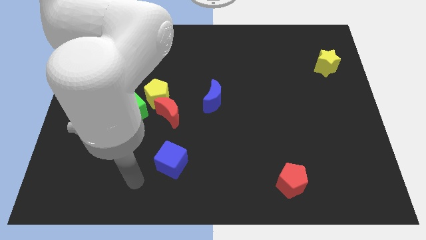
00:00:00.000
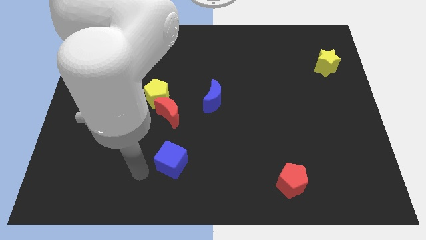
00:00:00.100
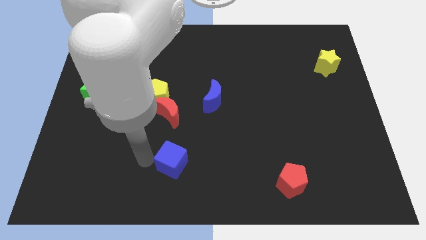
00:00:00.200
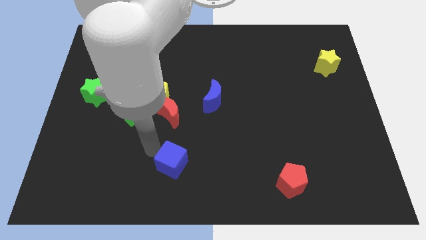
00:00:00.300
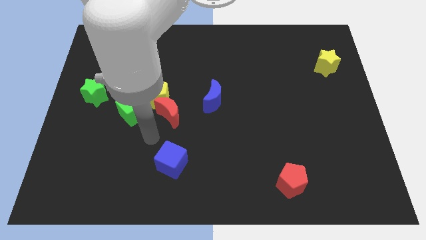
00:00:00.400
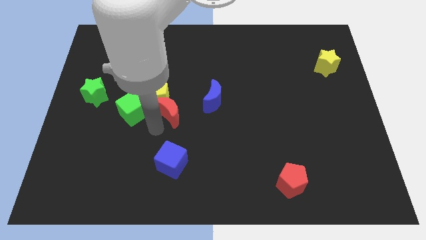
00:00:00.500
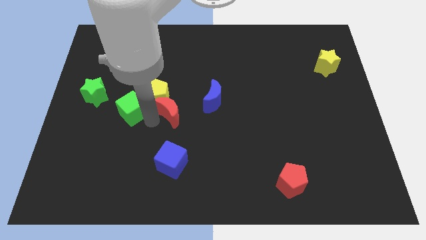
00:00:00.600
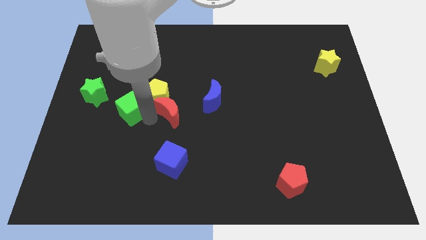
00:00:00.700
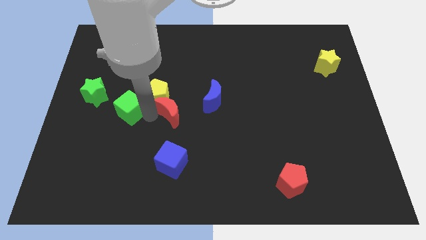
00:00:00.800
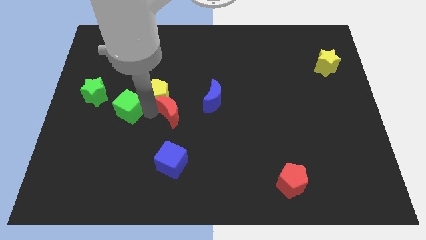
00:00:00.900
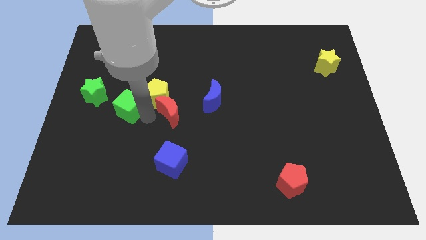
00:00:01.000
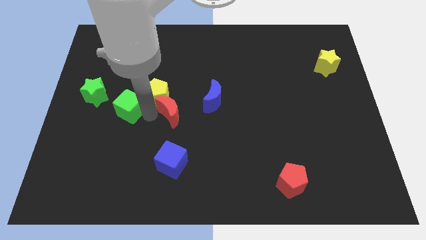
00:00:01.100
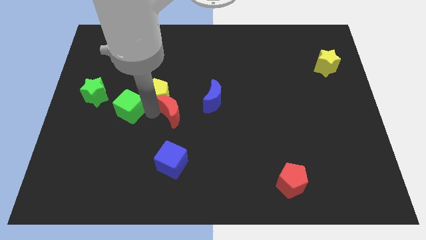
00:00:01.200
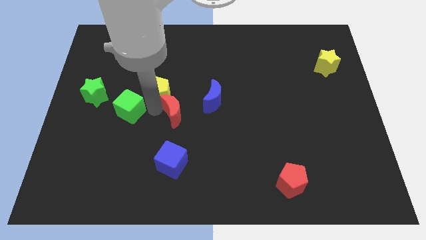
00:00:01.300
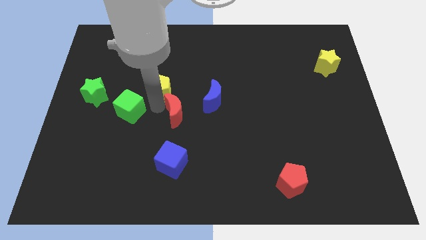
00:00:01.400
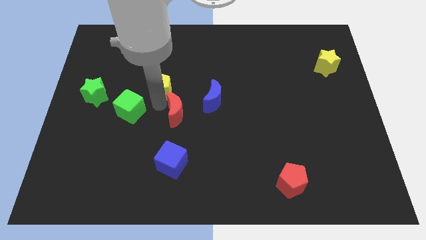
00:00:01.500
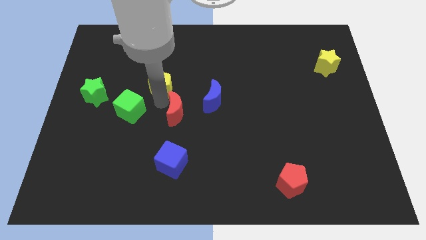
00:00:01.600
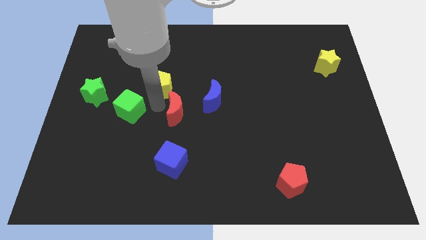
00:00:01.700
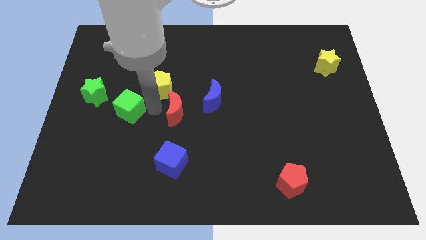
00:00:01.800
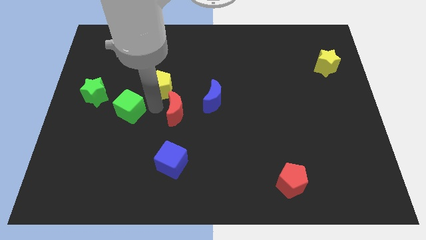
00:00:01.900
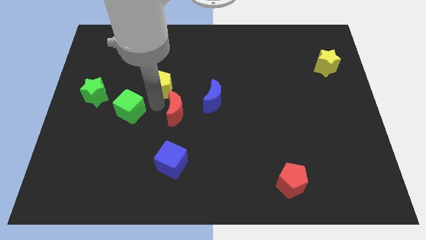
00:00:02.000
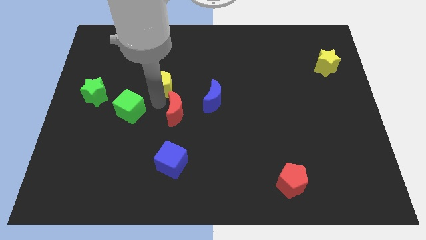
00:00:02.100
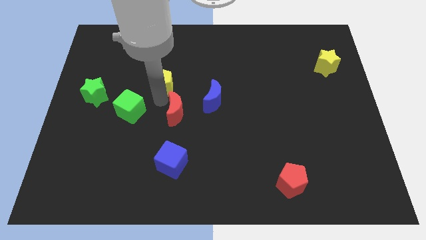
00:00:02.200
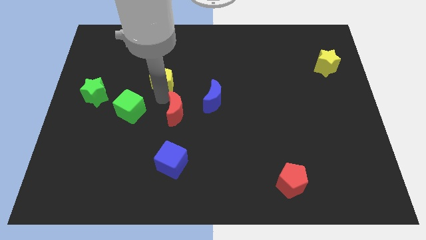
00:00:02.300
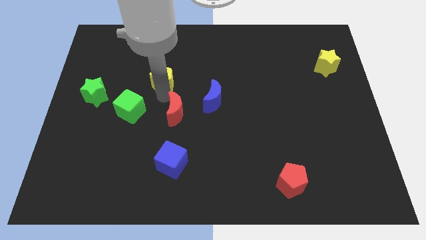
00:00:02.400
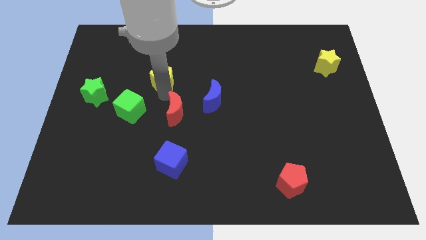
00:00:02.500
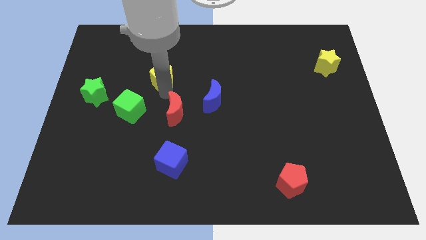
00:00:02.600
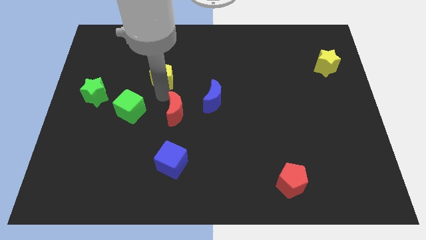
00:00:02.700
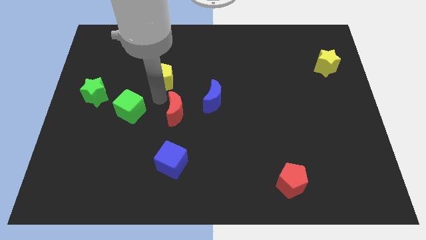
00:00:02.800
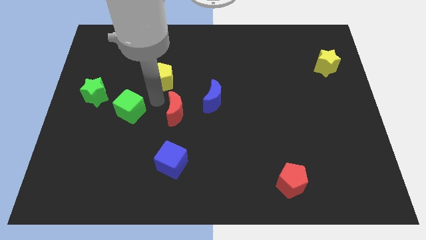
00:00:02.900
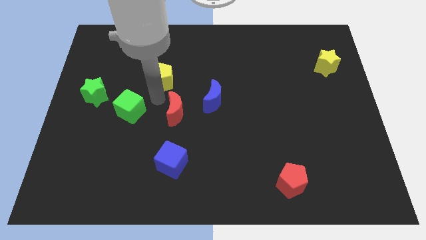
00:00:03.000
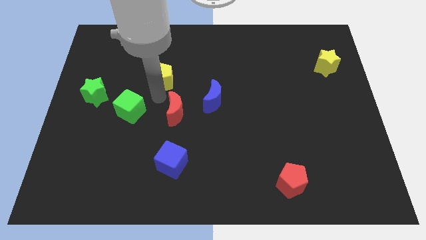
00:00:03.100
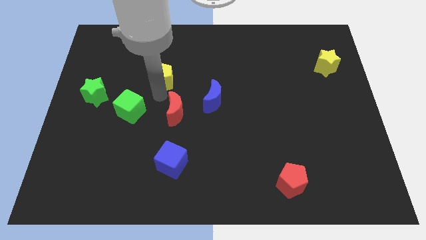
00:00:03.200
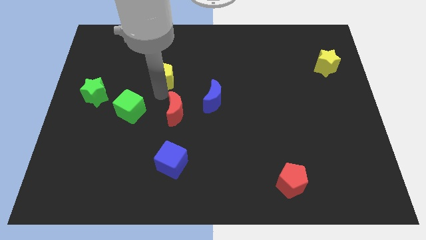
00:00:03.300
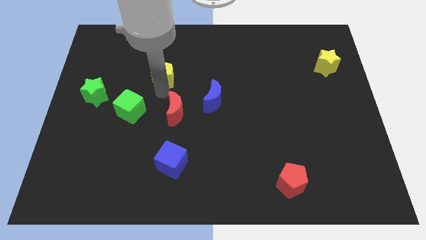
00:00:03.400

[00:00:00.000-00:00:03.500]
pull the yellow pentagon apart from the red moon and green cube

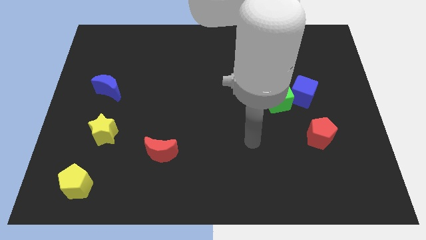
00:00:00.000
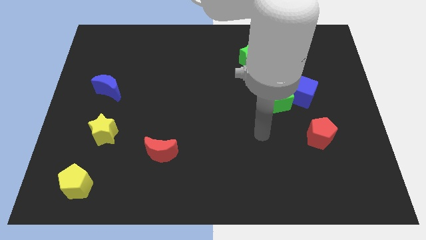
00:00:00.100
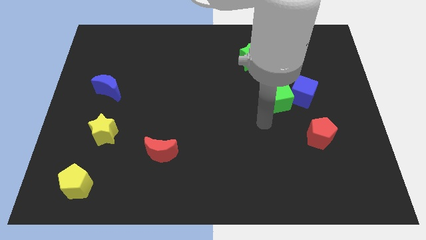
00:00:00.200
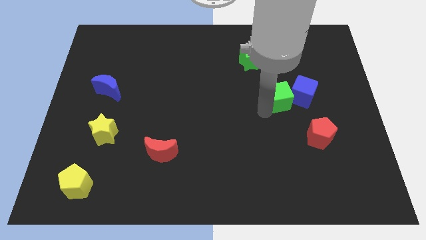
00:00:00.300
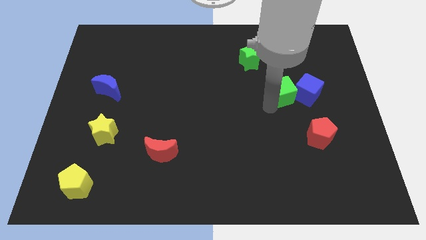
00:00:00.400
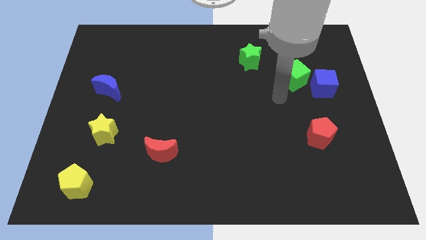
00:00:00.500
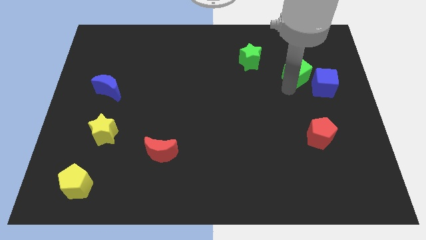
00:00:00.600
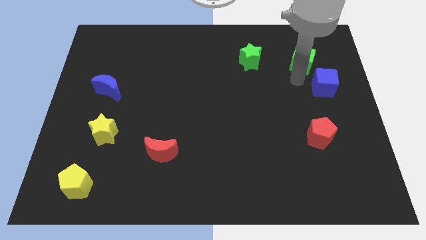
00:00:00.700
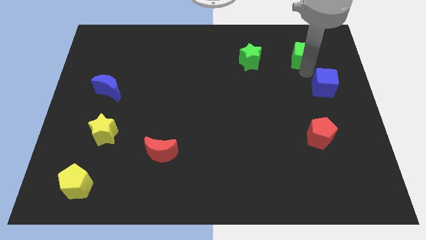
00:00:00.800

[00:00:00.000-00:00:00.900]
separate the blue cube from the green cube

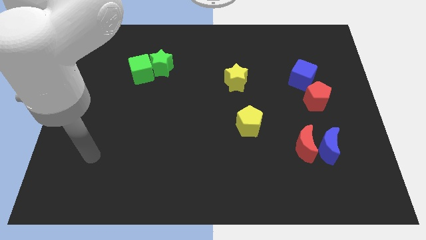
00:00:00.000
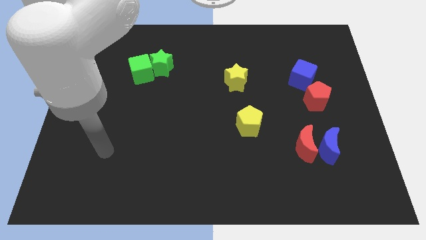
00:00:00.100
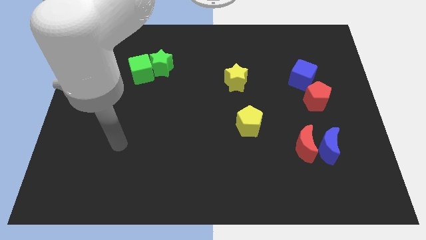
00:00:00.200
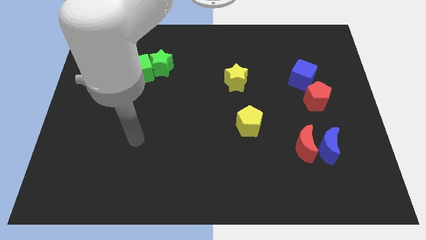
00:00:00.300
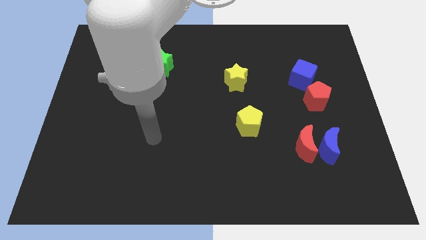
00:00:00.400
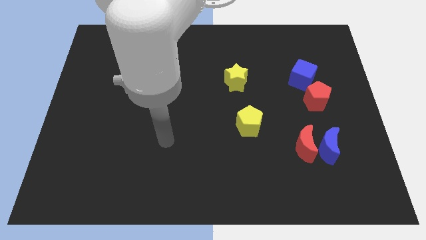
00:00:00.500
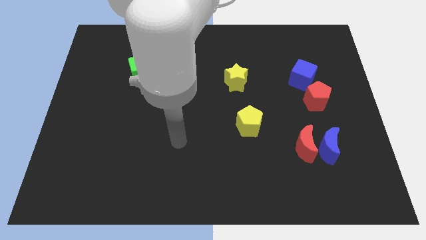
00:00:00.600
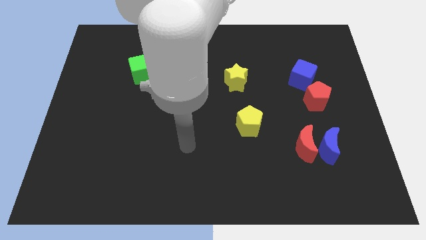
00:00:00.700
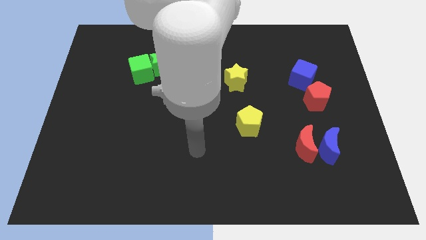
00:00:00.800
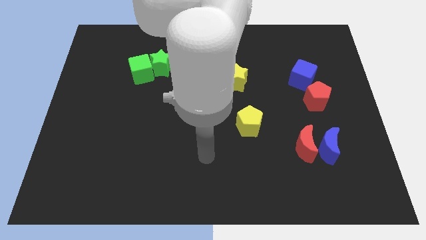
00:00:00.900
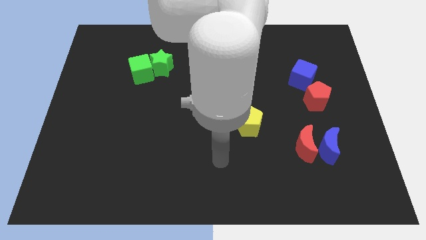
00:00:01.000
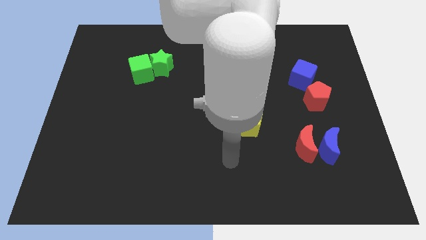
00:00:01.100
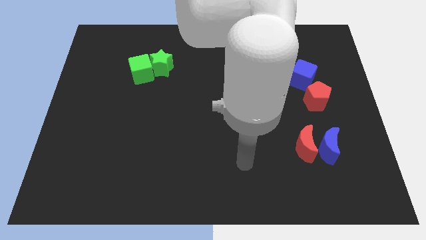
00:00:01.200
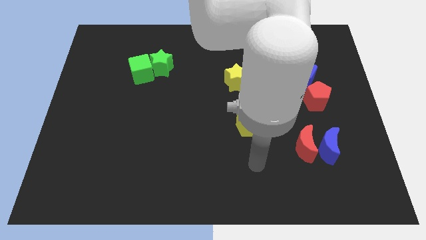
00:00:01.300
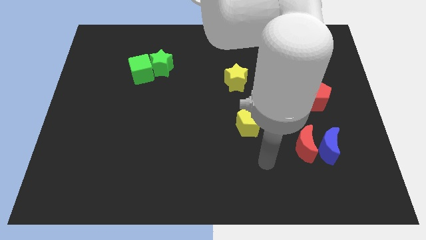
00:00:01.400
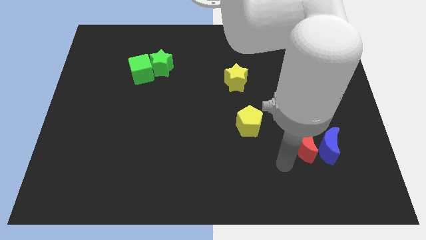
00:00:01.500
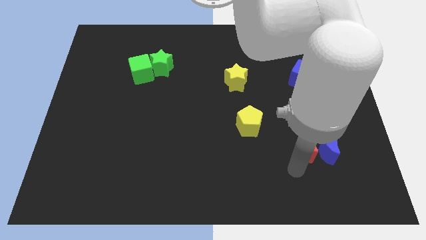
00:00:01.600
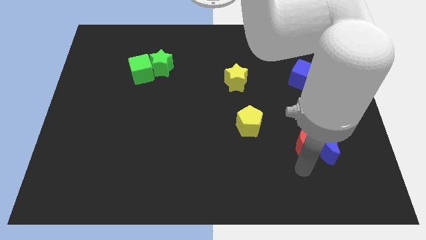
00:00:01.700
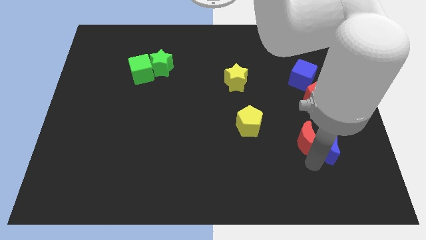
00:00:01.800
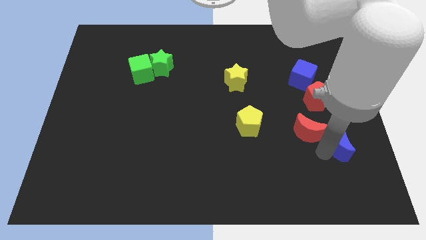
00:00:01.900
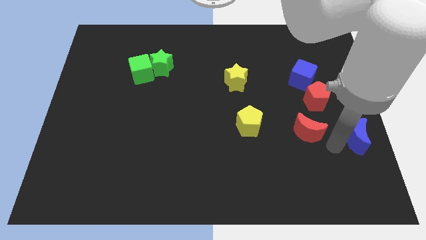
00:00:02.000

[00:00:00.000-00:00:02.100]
move the red moon away from the blue moon

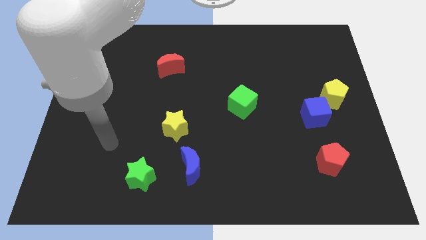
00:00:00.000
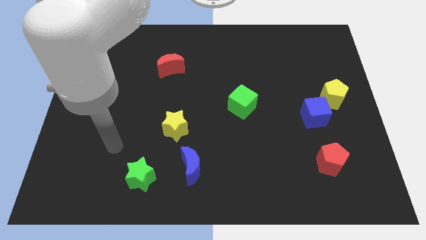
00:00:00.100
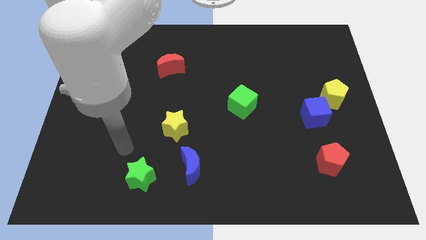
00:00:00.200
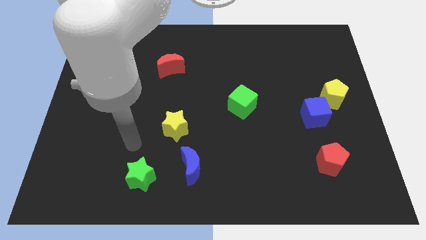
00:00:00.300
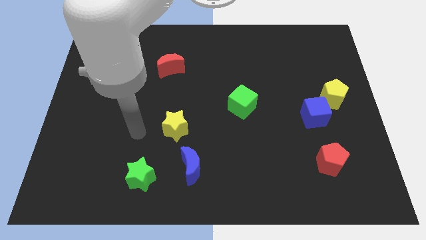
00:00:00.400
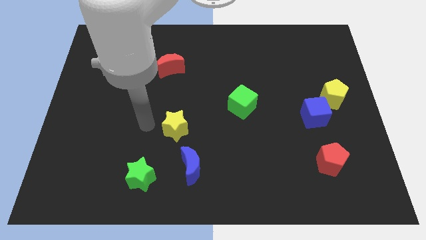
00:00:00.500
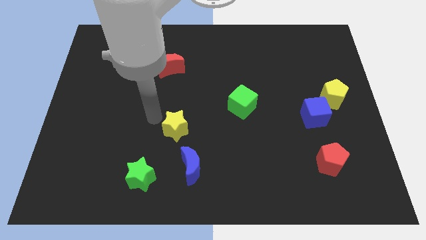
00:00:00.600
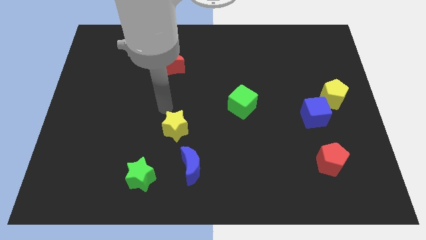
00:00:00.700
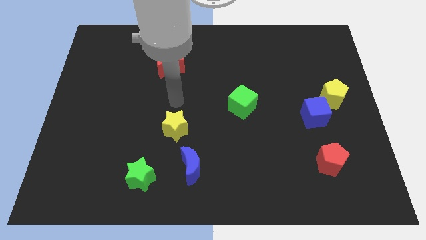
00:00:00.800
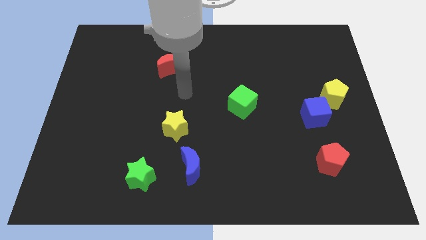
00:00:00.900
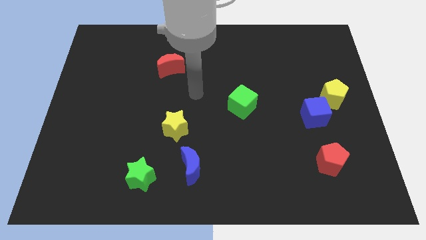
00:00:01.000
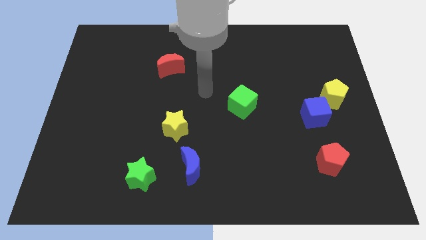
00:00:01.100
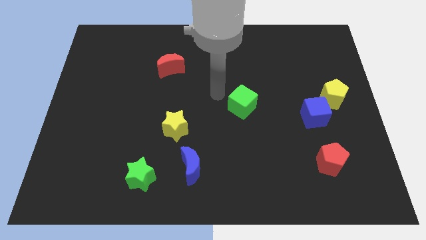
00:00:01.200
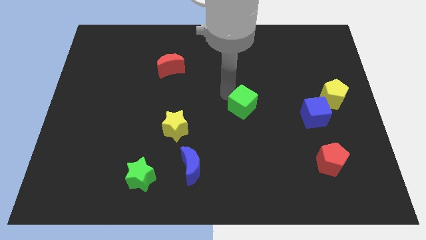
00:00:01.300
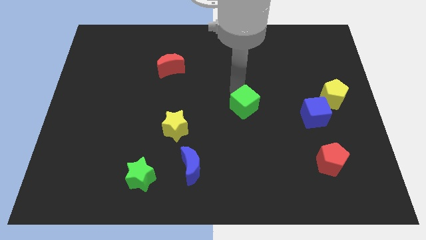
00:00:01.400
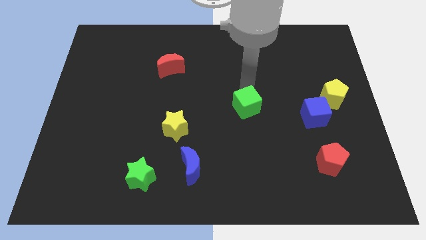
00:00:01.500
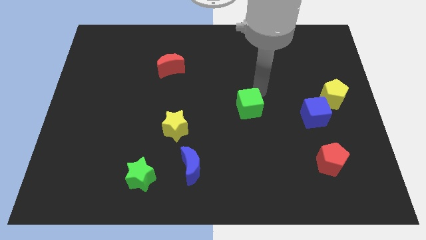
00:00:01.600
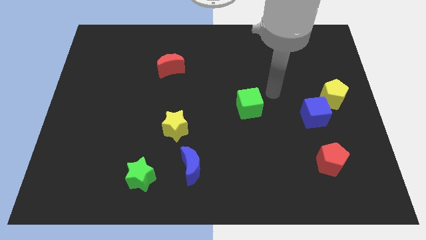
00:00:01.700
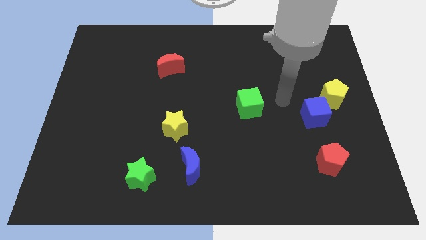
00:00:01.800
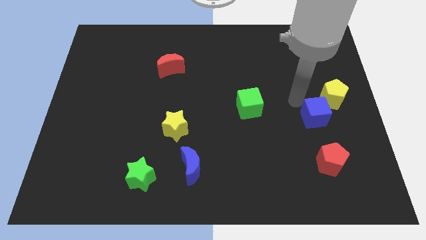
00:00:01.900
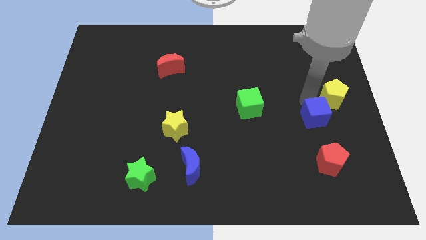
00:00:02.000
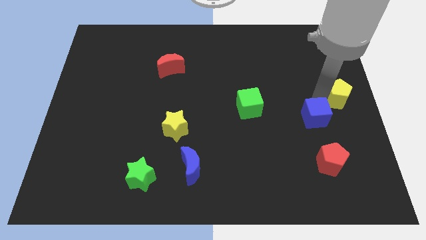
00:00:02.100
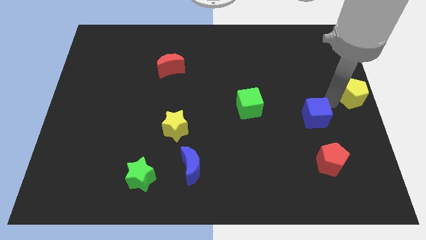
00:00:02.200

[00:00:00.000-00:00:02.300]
move the blue cube away from the yellow pentagon

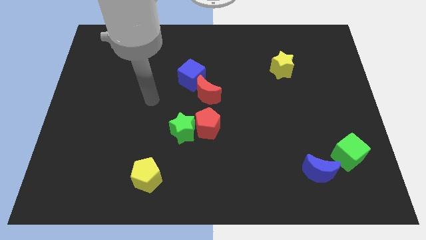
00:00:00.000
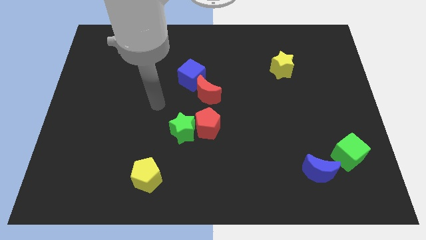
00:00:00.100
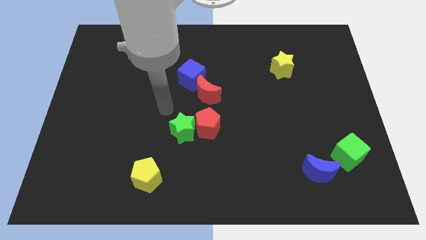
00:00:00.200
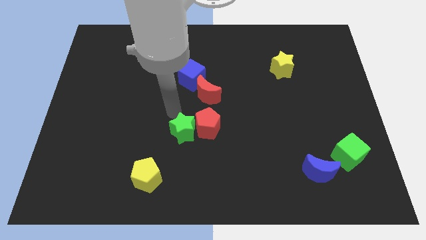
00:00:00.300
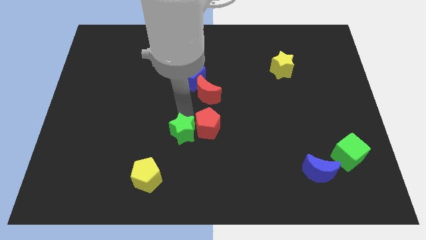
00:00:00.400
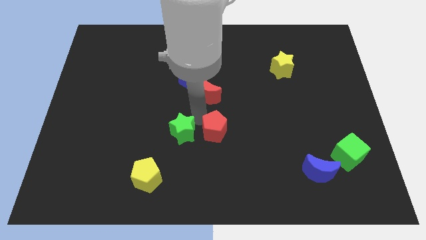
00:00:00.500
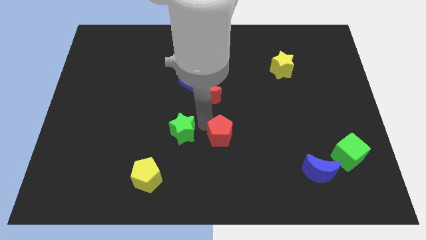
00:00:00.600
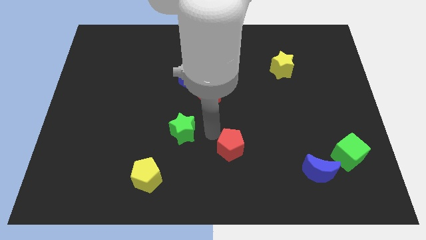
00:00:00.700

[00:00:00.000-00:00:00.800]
move the green star away from the red pentagon
